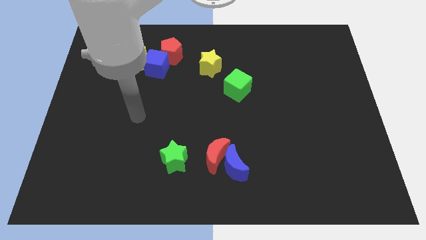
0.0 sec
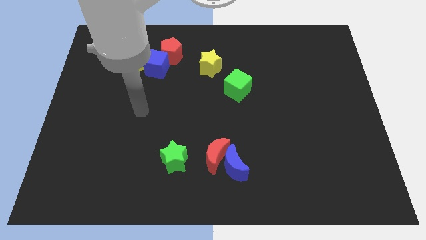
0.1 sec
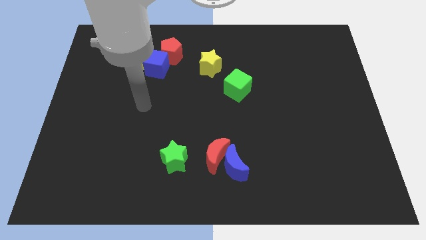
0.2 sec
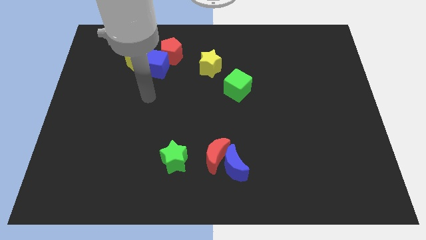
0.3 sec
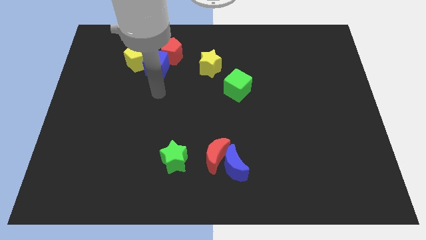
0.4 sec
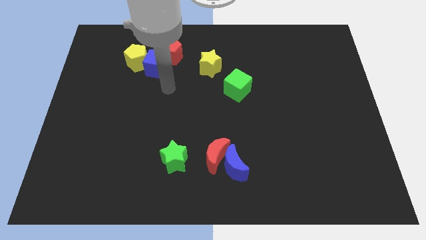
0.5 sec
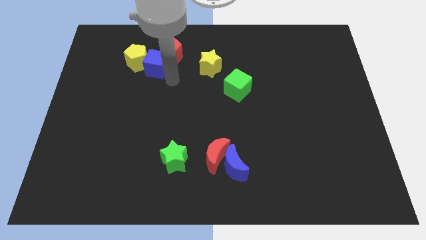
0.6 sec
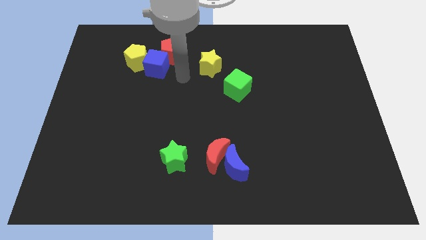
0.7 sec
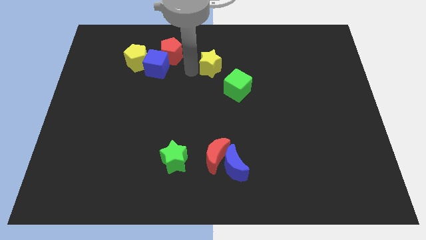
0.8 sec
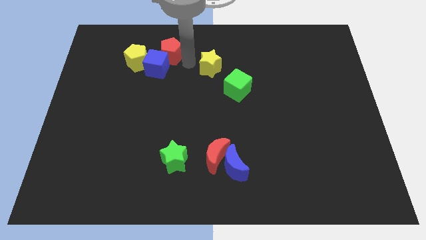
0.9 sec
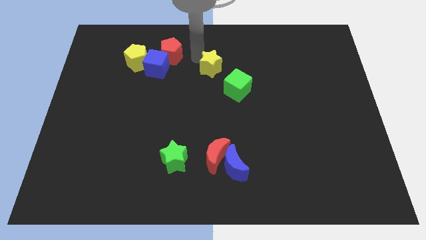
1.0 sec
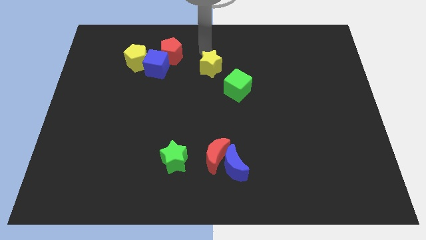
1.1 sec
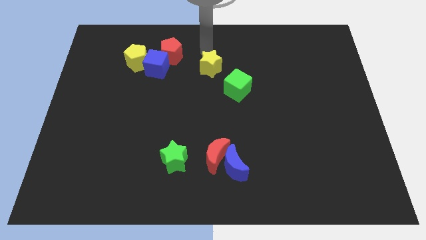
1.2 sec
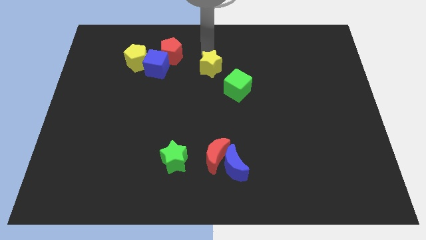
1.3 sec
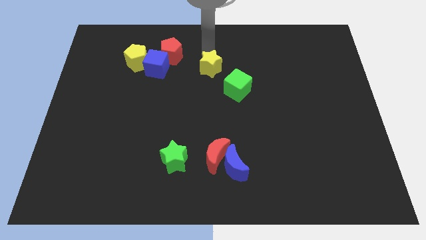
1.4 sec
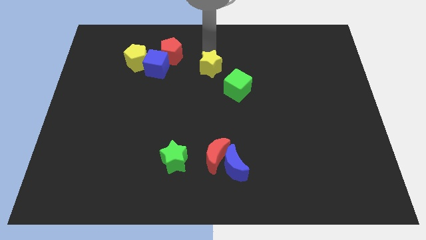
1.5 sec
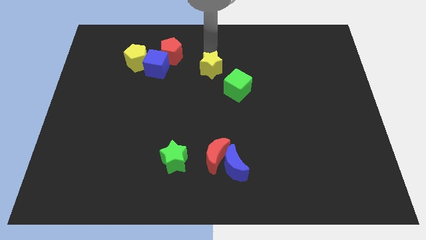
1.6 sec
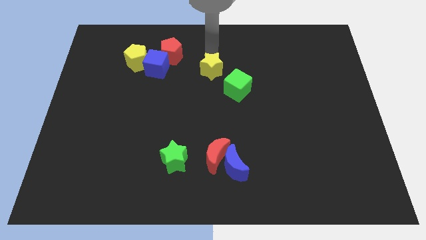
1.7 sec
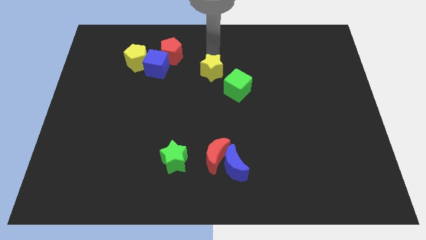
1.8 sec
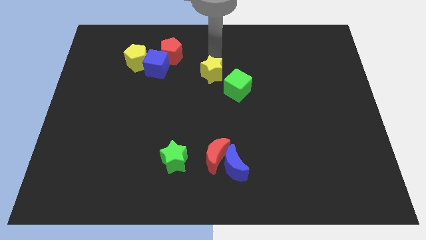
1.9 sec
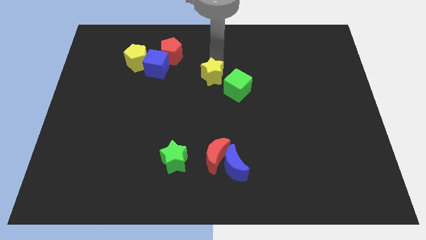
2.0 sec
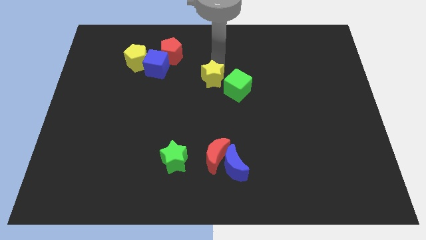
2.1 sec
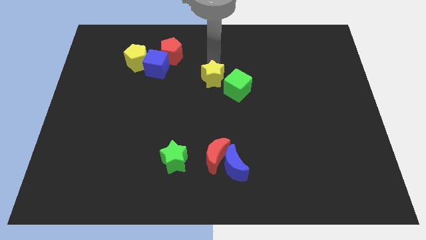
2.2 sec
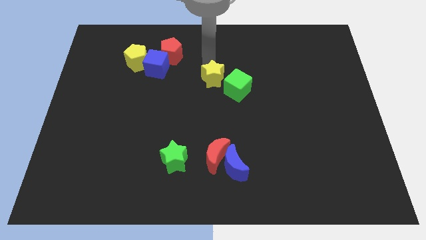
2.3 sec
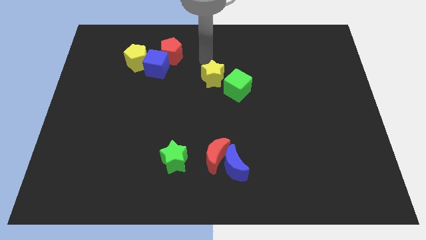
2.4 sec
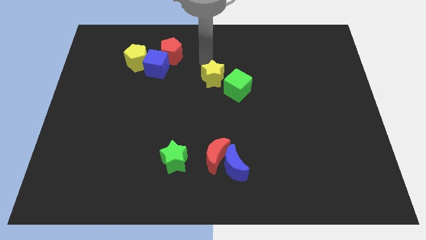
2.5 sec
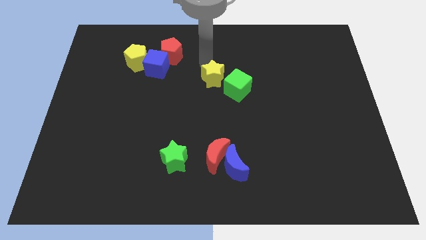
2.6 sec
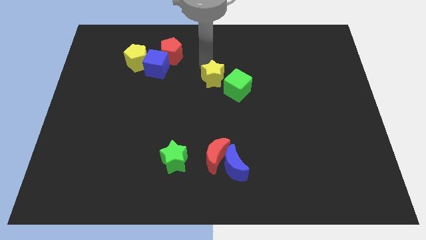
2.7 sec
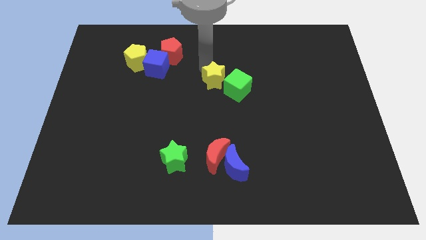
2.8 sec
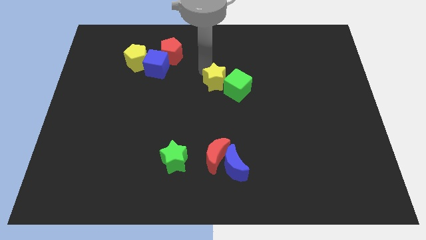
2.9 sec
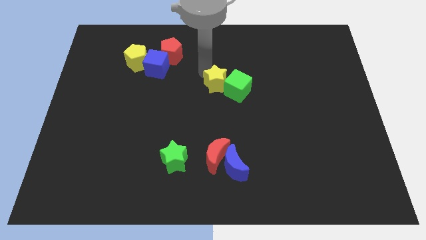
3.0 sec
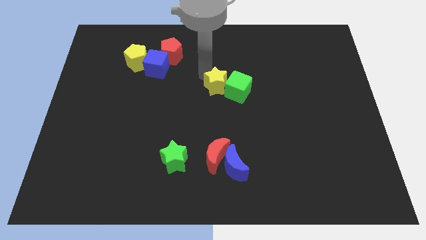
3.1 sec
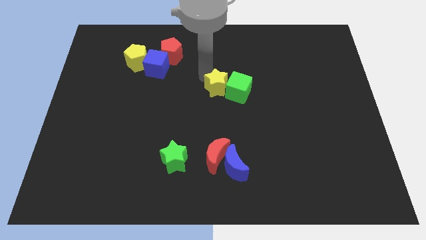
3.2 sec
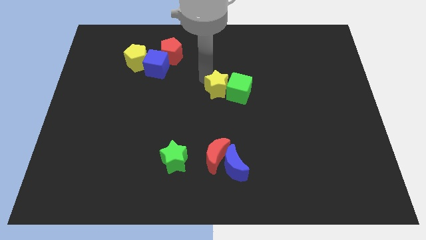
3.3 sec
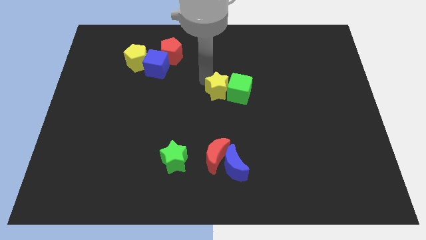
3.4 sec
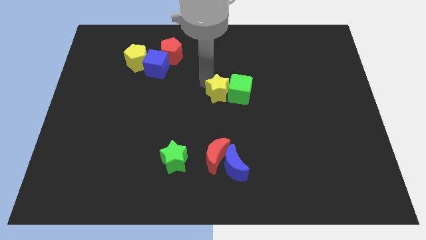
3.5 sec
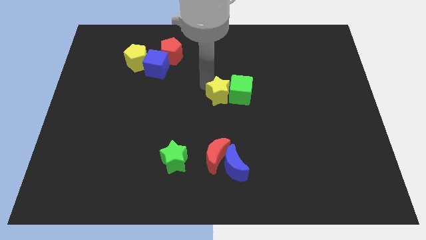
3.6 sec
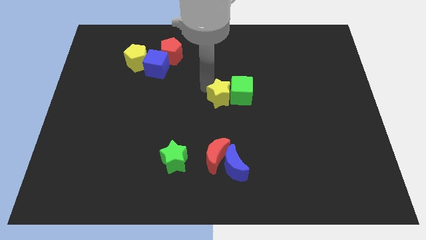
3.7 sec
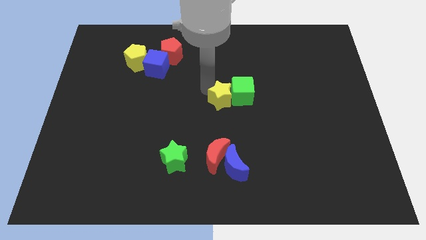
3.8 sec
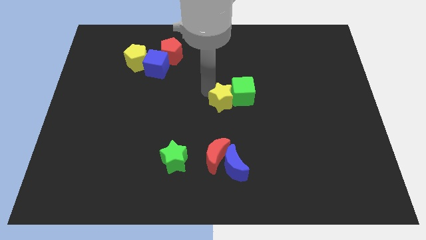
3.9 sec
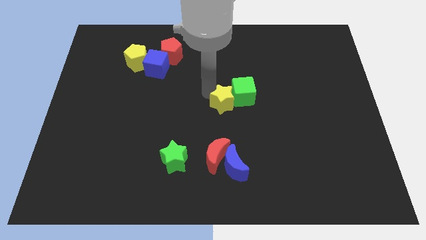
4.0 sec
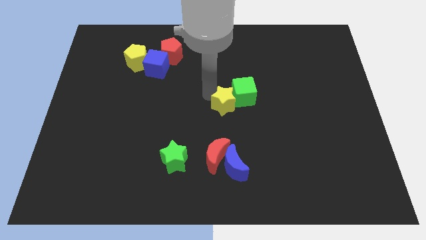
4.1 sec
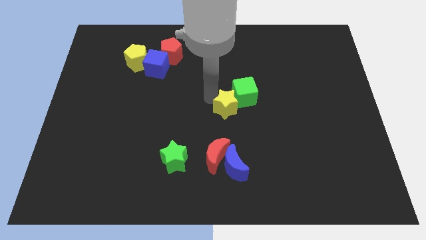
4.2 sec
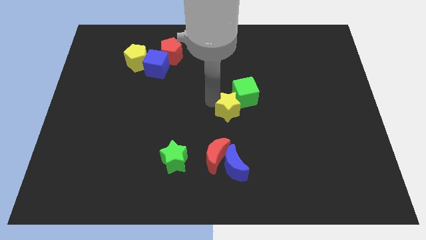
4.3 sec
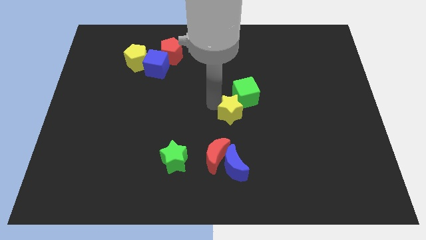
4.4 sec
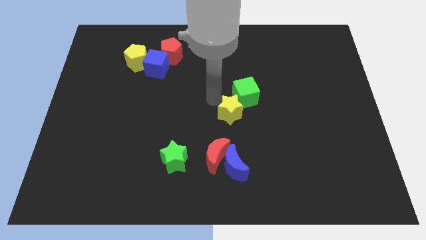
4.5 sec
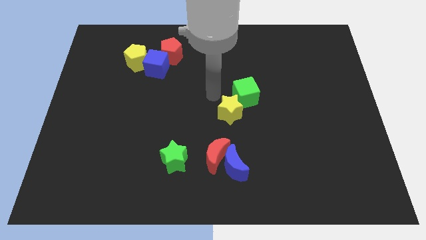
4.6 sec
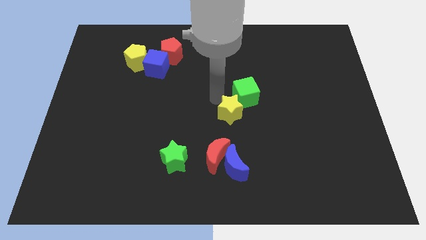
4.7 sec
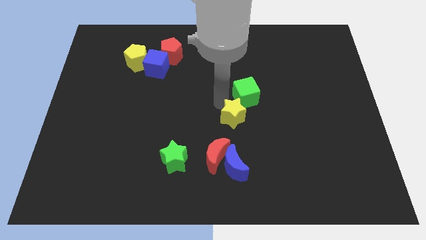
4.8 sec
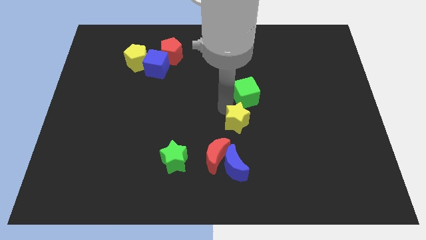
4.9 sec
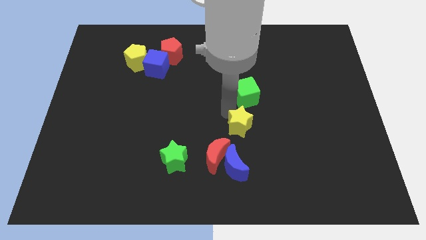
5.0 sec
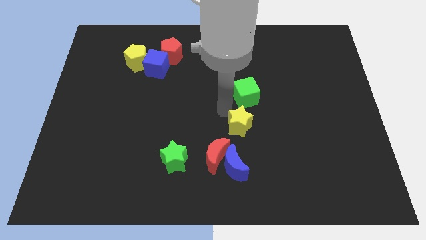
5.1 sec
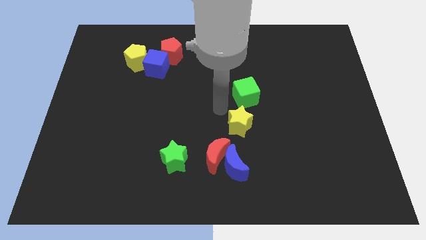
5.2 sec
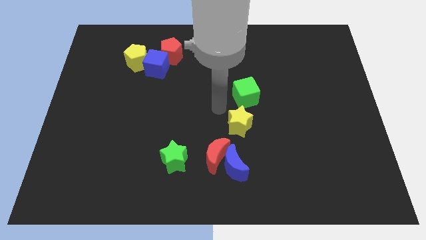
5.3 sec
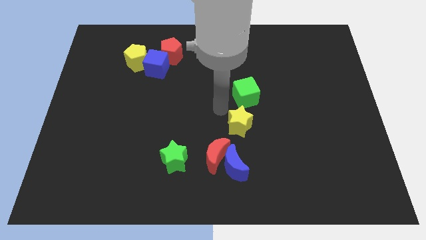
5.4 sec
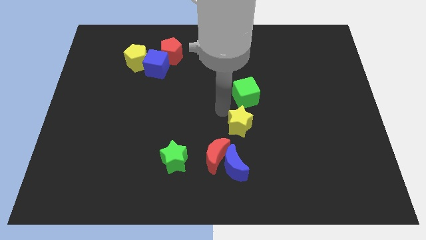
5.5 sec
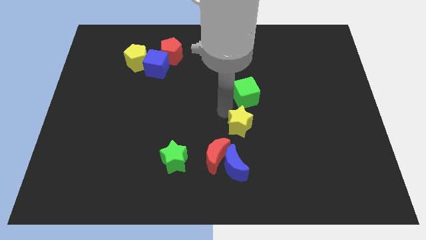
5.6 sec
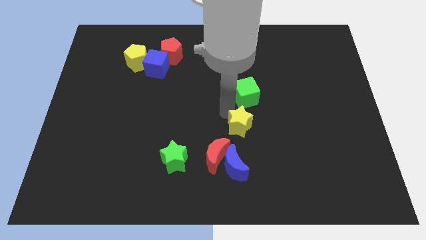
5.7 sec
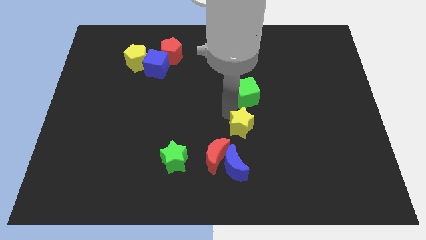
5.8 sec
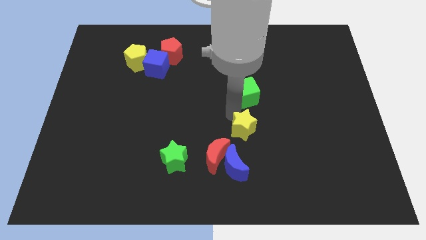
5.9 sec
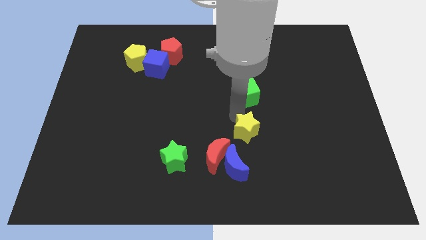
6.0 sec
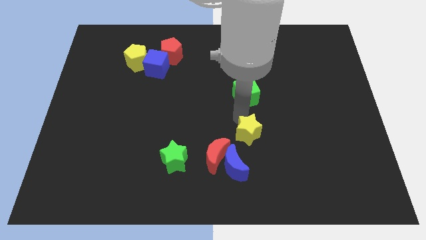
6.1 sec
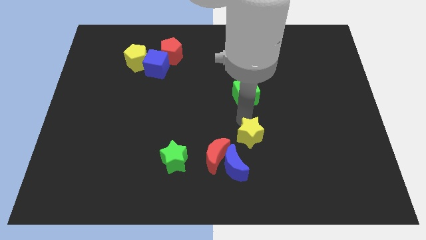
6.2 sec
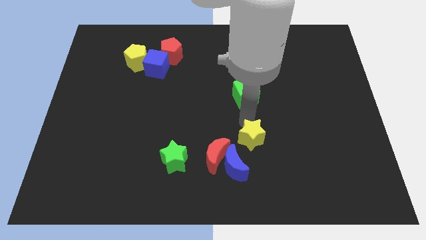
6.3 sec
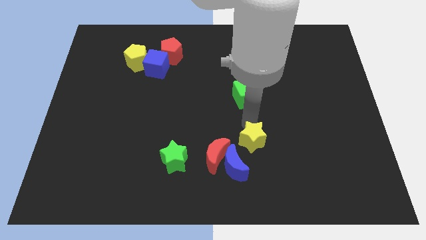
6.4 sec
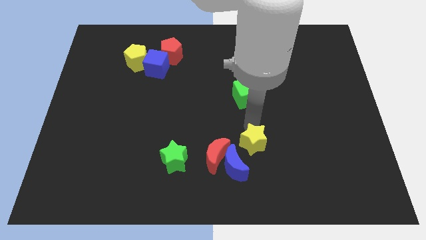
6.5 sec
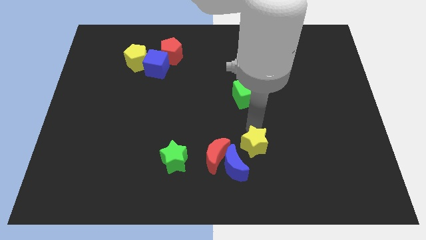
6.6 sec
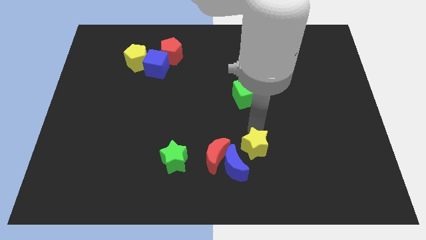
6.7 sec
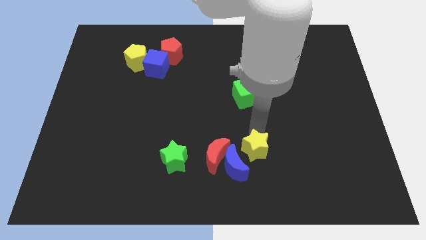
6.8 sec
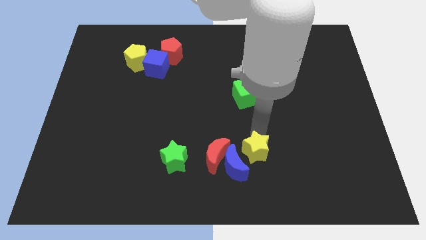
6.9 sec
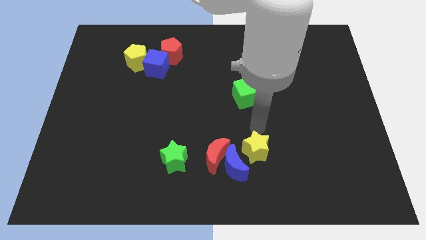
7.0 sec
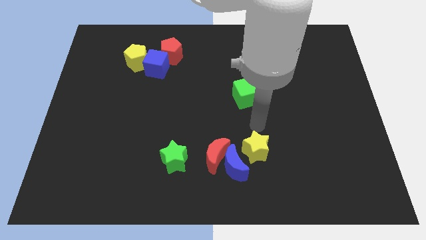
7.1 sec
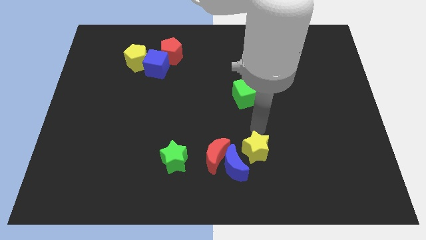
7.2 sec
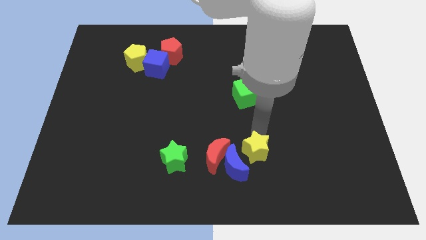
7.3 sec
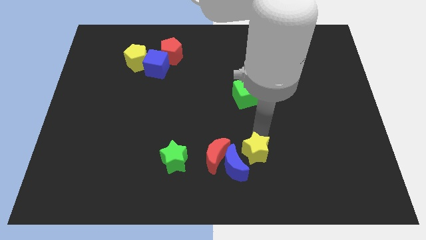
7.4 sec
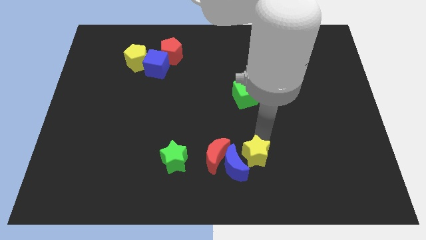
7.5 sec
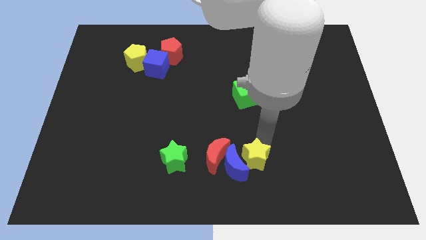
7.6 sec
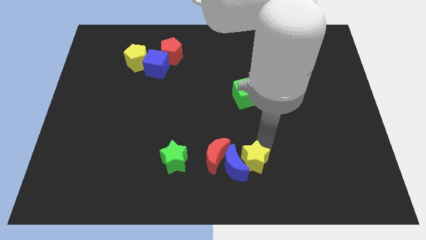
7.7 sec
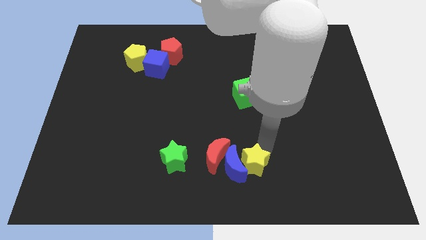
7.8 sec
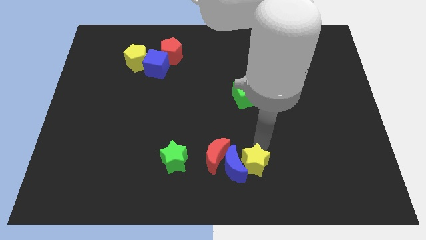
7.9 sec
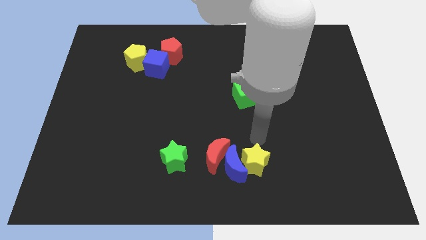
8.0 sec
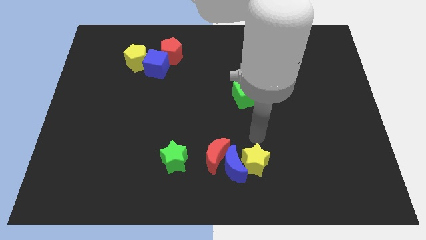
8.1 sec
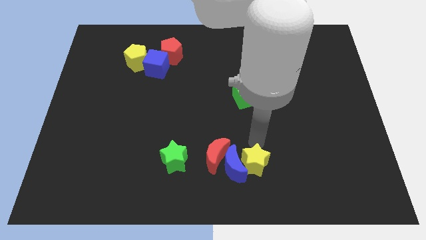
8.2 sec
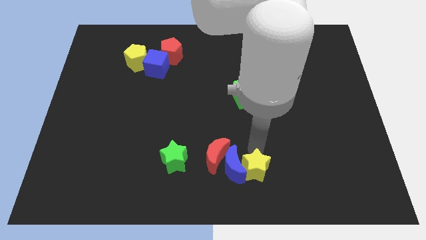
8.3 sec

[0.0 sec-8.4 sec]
push the yellow star to the bottom
